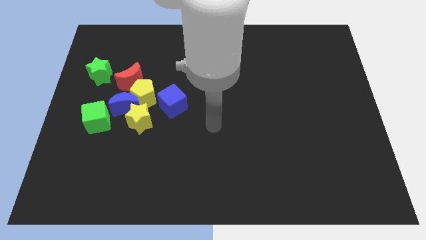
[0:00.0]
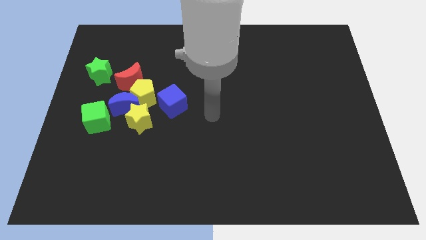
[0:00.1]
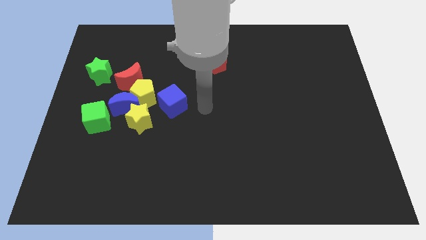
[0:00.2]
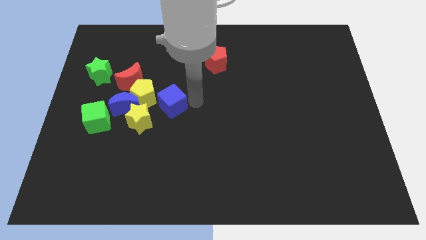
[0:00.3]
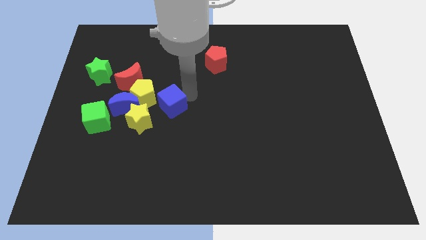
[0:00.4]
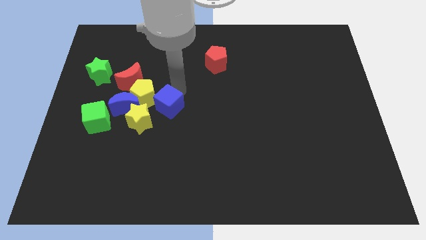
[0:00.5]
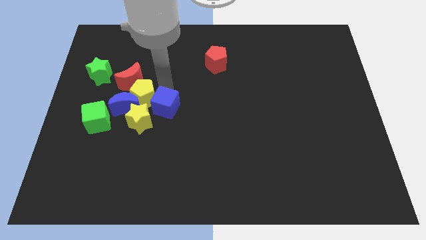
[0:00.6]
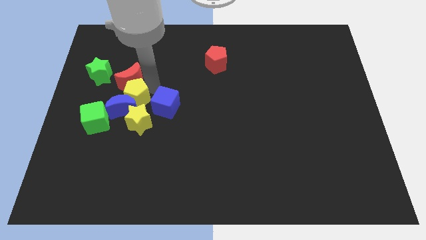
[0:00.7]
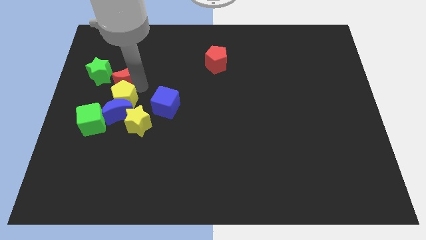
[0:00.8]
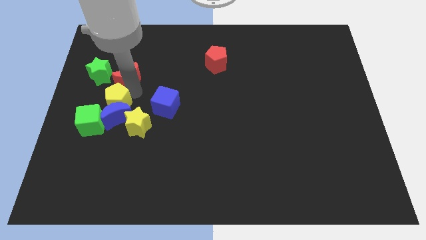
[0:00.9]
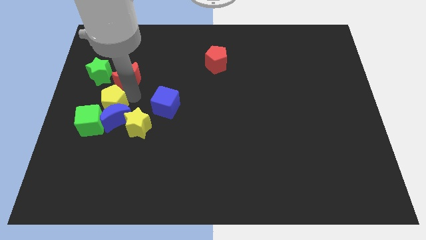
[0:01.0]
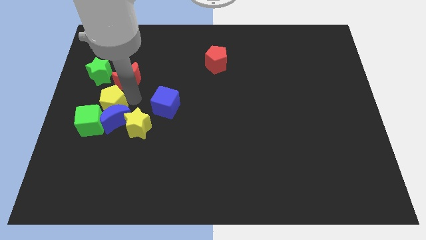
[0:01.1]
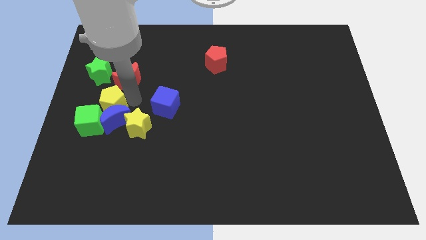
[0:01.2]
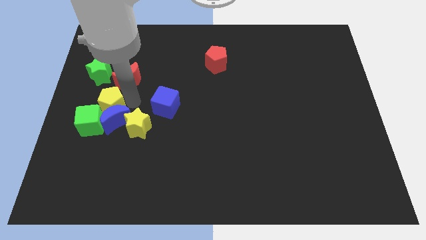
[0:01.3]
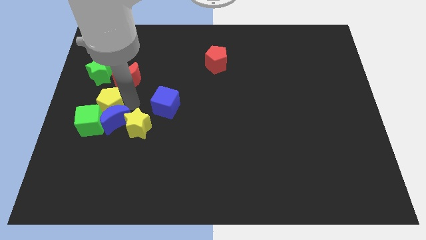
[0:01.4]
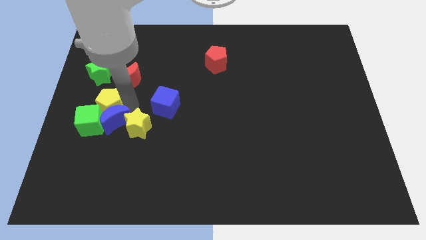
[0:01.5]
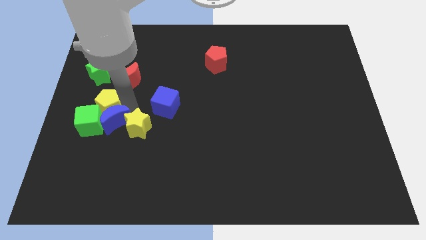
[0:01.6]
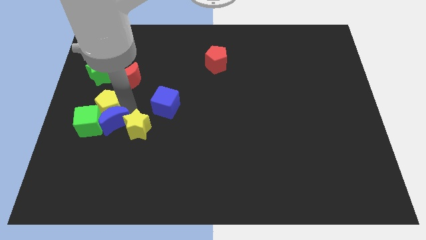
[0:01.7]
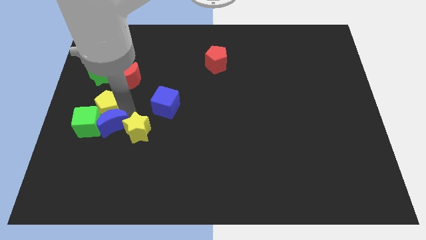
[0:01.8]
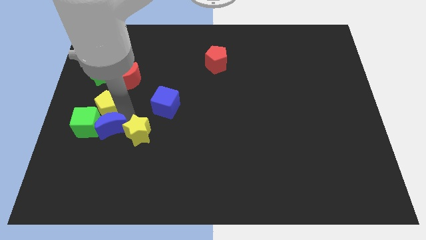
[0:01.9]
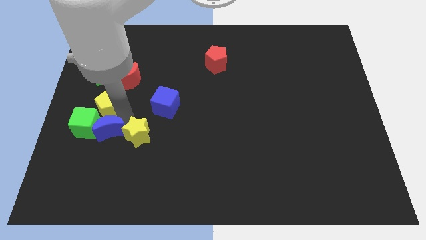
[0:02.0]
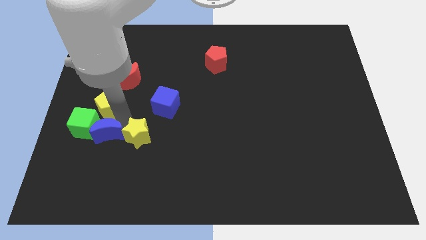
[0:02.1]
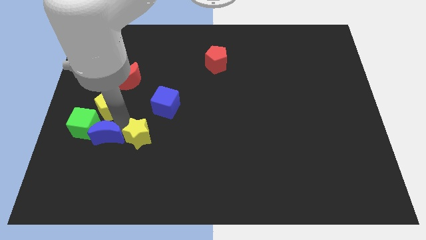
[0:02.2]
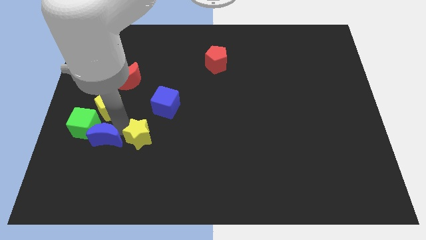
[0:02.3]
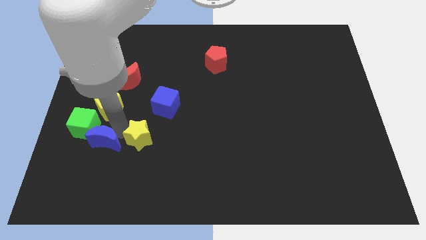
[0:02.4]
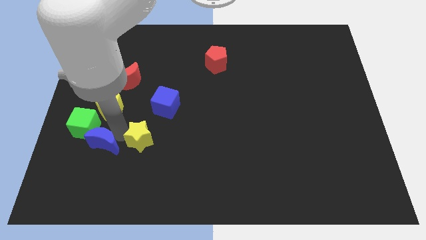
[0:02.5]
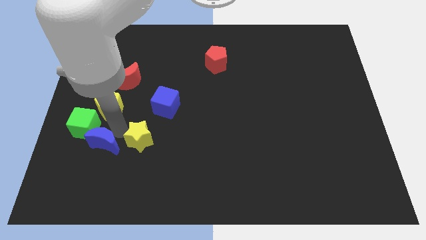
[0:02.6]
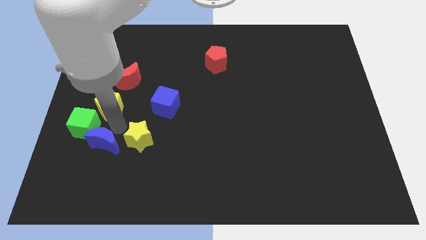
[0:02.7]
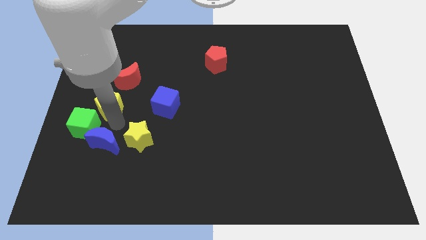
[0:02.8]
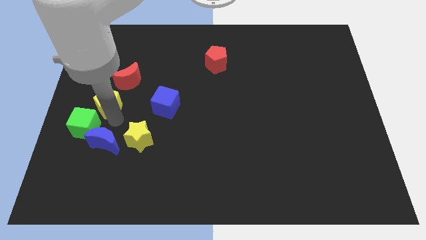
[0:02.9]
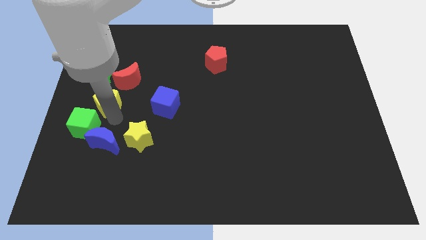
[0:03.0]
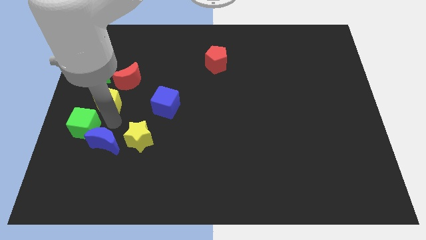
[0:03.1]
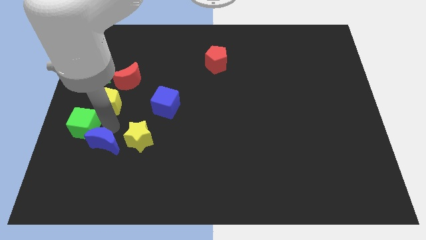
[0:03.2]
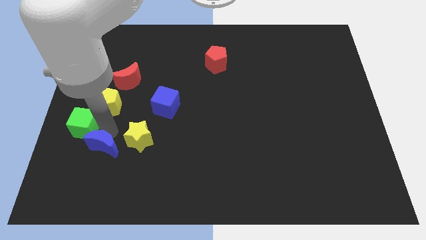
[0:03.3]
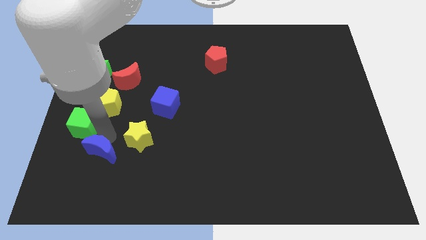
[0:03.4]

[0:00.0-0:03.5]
move the blue moon away from the group of blocks

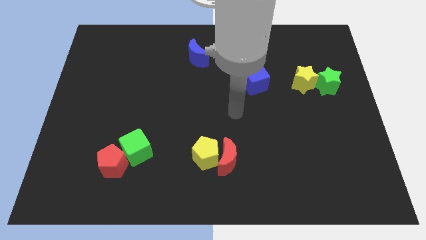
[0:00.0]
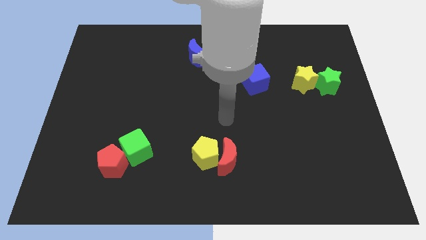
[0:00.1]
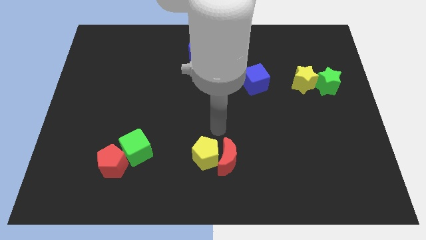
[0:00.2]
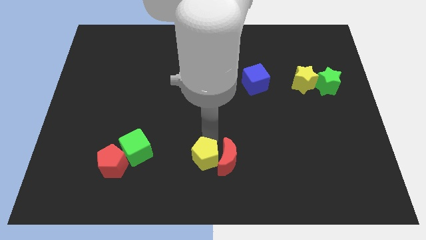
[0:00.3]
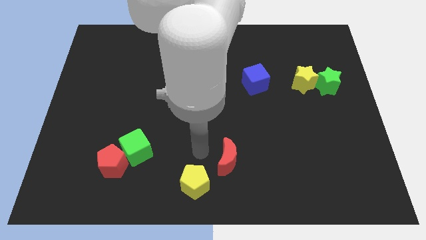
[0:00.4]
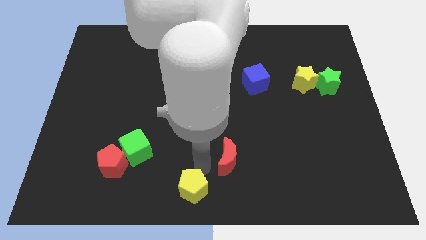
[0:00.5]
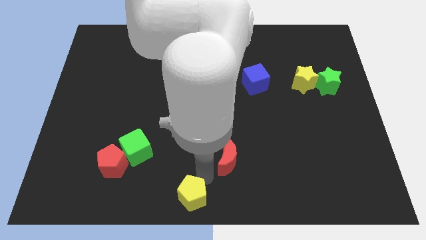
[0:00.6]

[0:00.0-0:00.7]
move the red moon away from the yellow pentagon

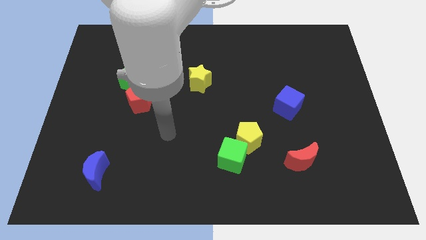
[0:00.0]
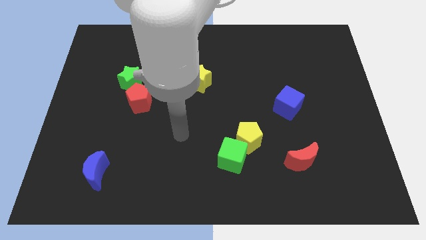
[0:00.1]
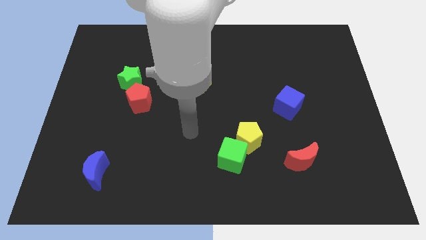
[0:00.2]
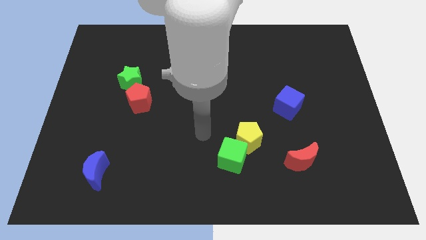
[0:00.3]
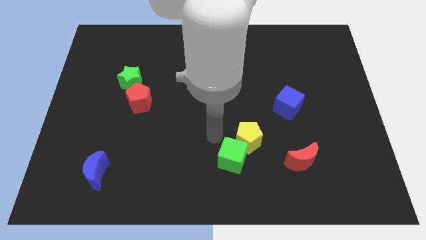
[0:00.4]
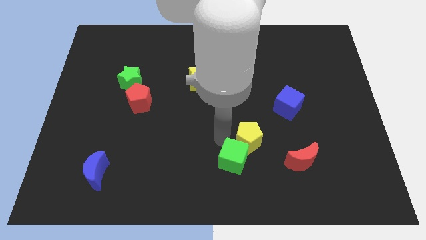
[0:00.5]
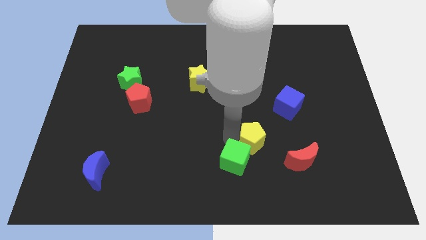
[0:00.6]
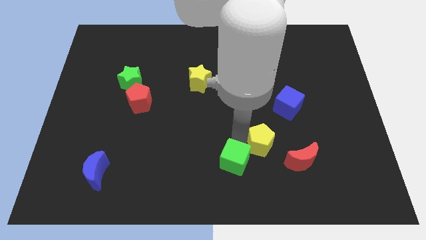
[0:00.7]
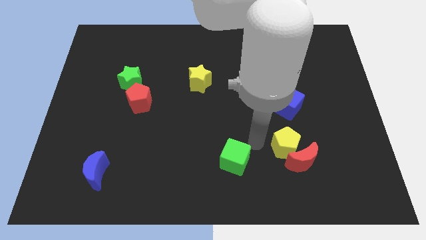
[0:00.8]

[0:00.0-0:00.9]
pull the green cube apart from the yellow pentagon

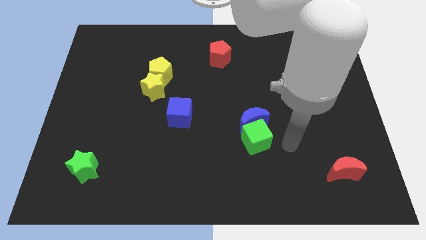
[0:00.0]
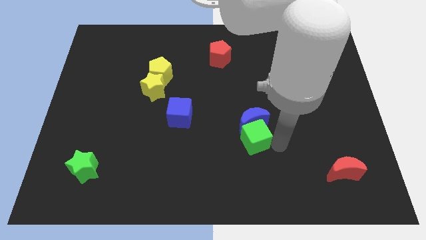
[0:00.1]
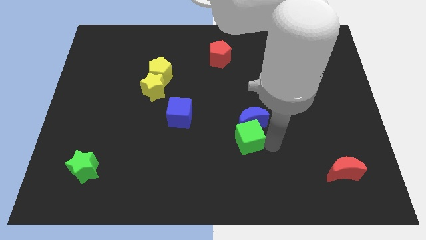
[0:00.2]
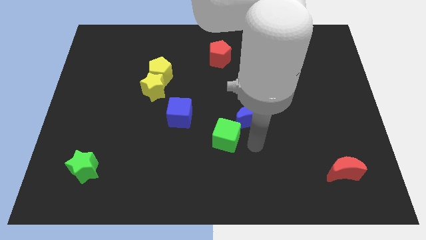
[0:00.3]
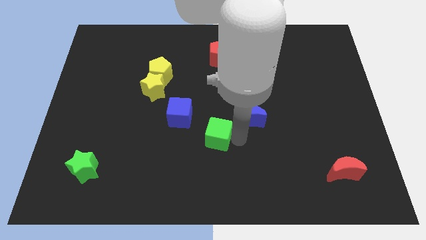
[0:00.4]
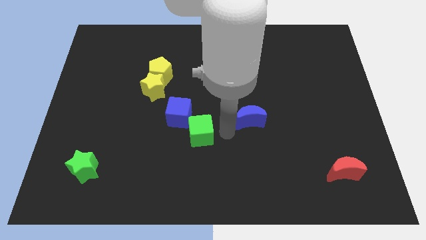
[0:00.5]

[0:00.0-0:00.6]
move the blue moon away from the green cube

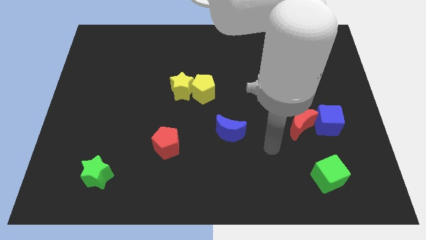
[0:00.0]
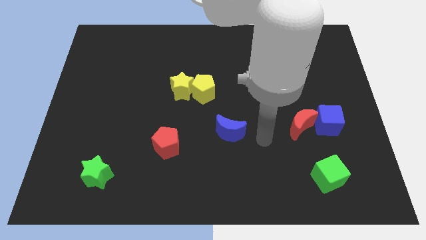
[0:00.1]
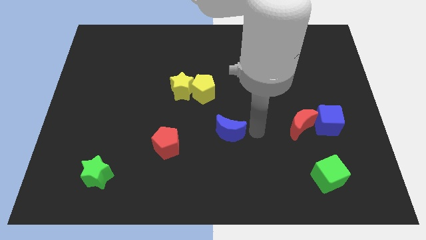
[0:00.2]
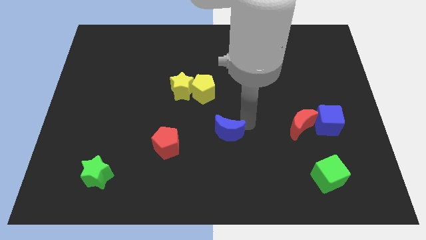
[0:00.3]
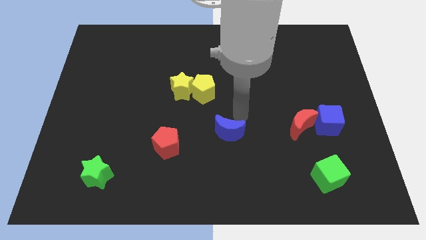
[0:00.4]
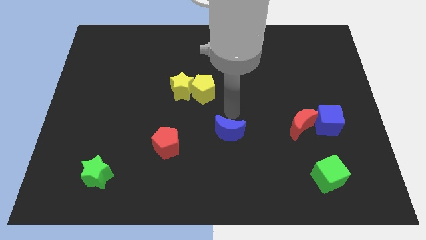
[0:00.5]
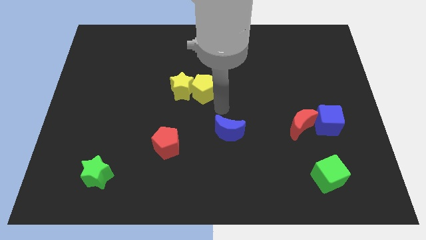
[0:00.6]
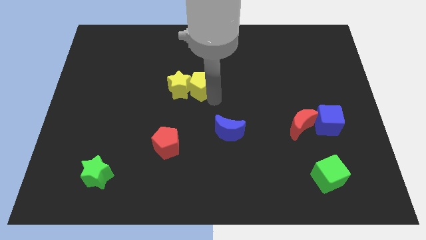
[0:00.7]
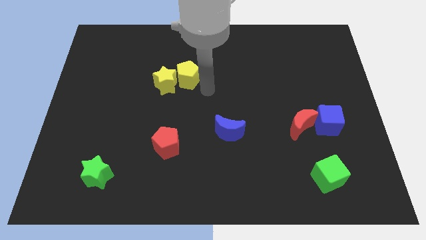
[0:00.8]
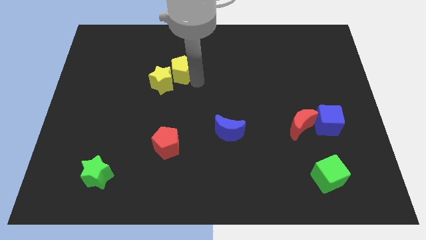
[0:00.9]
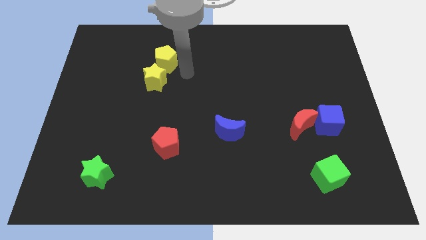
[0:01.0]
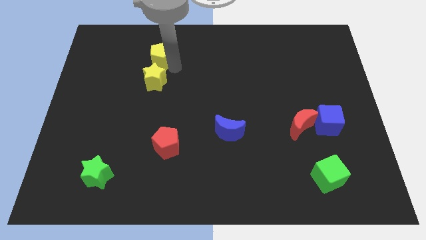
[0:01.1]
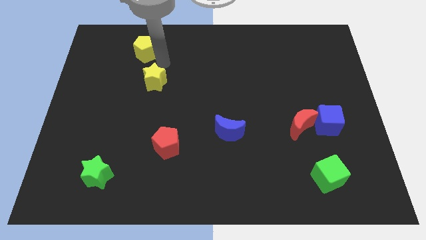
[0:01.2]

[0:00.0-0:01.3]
separate the yellow star from the yellow pentagon

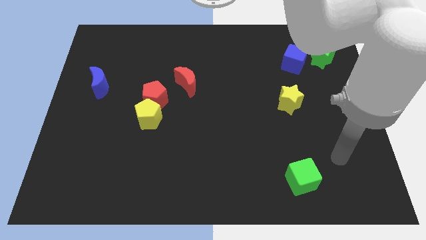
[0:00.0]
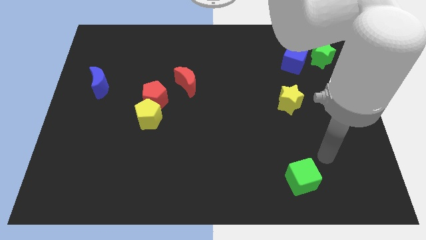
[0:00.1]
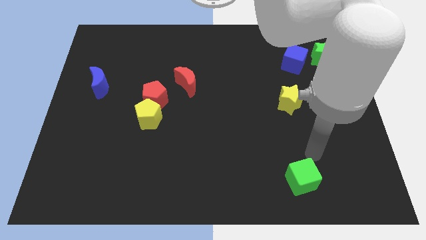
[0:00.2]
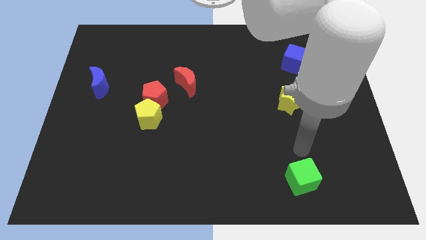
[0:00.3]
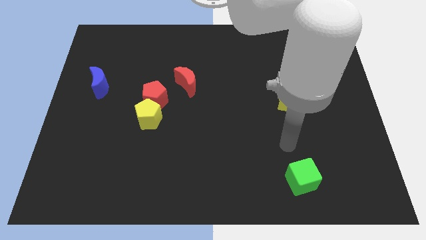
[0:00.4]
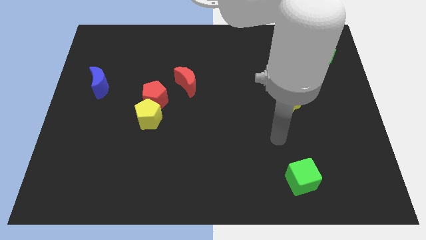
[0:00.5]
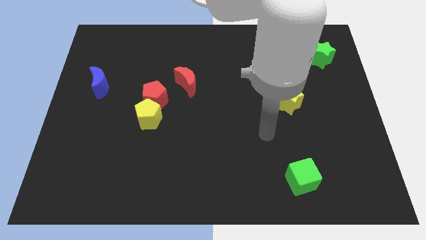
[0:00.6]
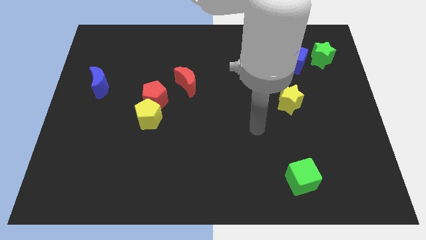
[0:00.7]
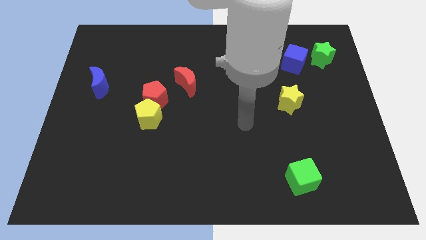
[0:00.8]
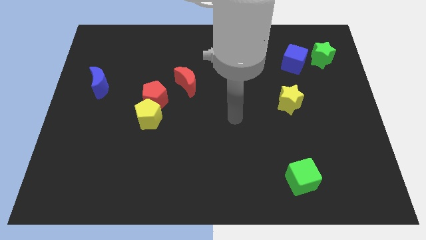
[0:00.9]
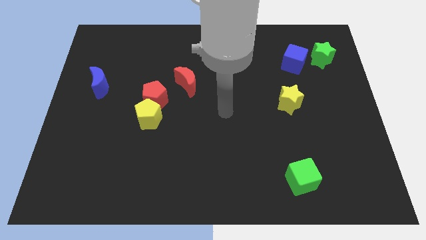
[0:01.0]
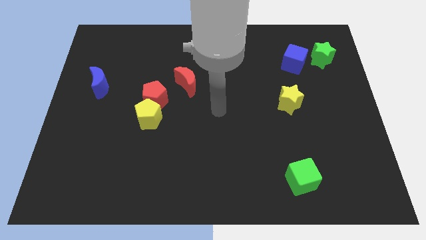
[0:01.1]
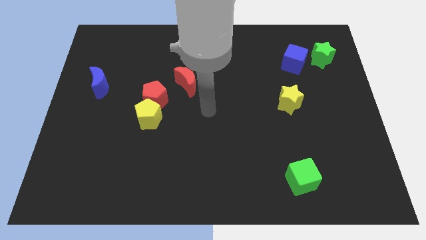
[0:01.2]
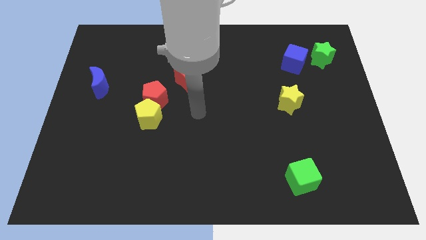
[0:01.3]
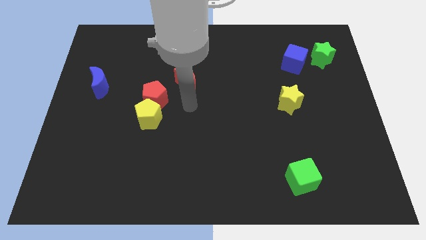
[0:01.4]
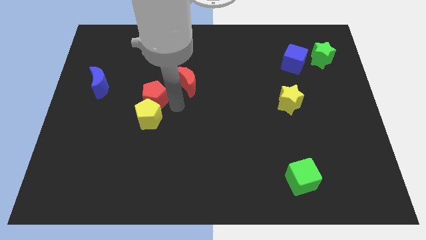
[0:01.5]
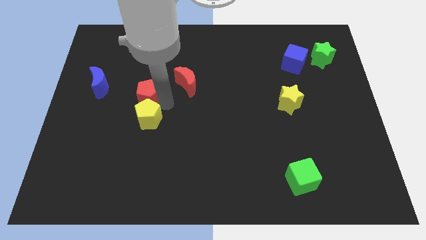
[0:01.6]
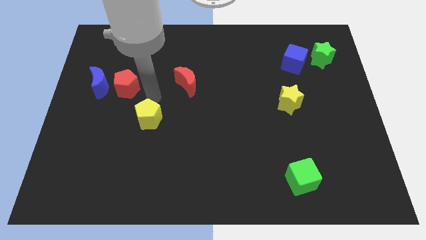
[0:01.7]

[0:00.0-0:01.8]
pull the yellow pentagon apart from the red pentagon

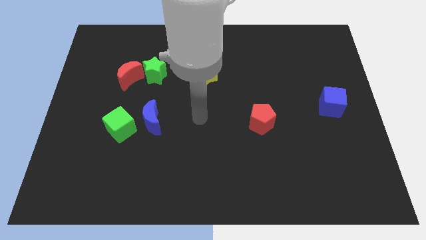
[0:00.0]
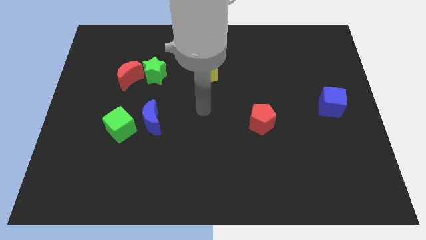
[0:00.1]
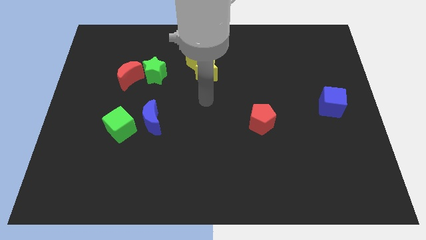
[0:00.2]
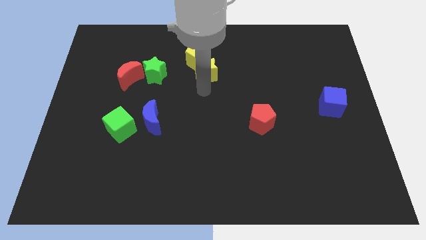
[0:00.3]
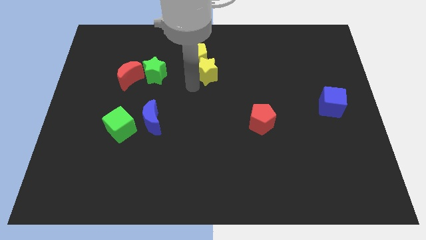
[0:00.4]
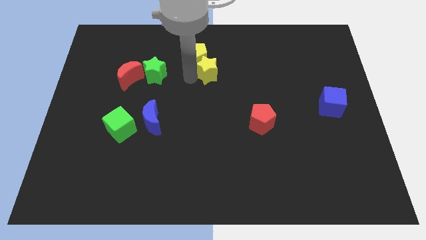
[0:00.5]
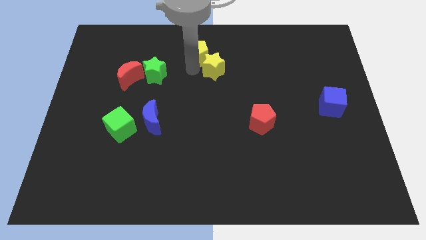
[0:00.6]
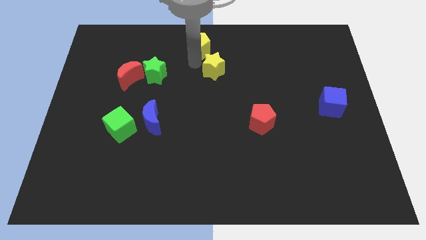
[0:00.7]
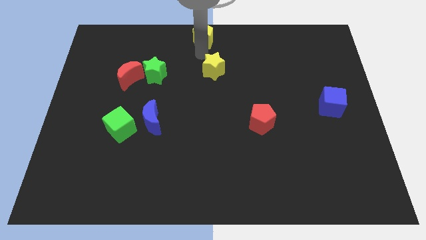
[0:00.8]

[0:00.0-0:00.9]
move the yellow star away from the yellow pentagon
